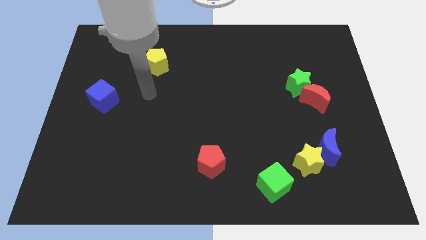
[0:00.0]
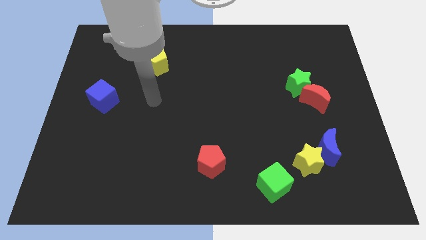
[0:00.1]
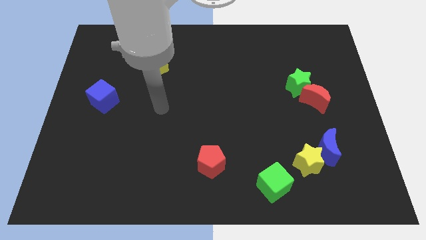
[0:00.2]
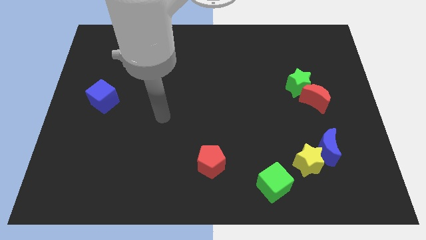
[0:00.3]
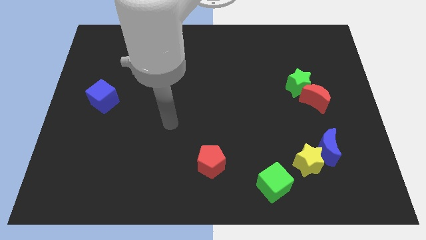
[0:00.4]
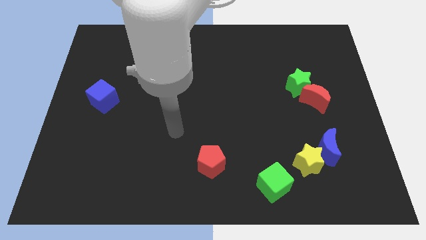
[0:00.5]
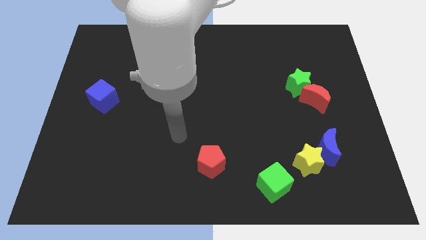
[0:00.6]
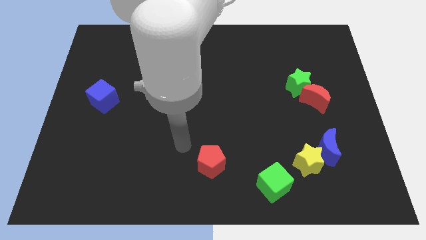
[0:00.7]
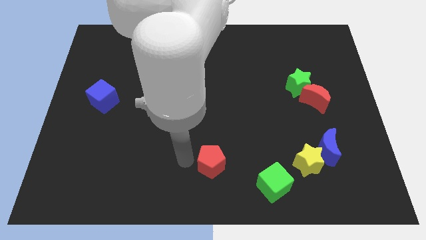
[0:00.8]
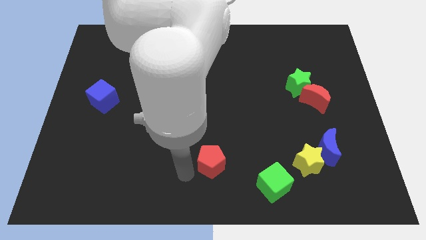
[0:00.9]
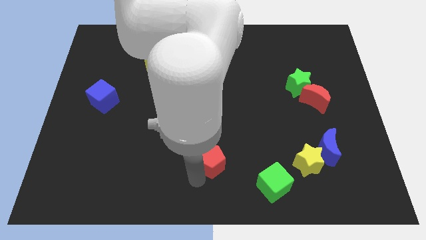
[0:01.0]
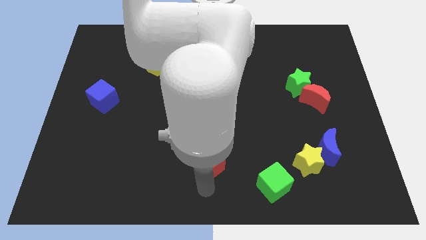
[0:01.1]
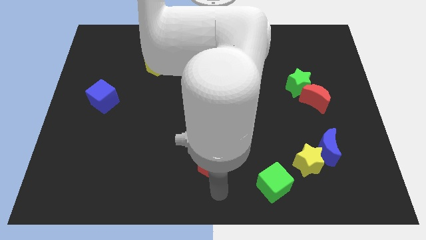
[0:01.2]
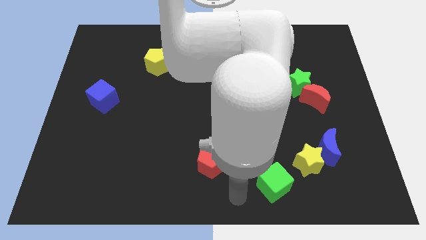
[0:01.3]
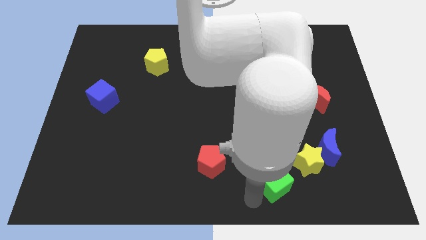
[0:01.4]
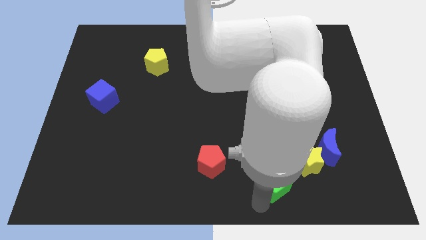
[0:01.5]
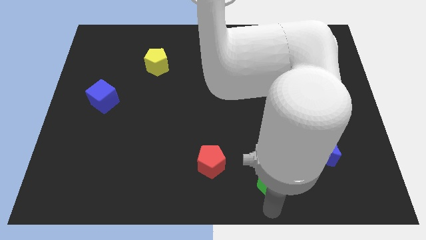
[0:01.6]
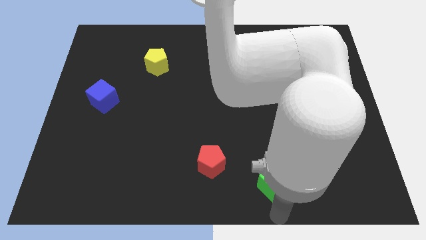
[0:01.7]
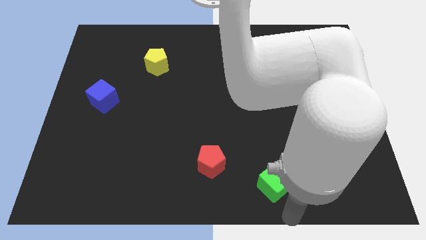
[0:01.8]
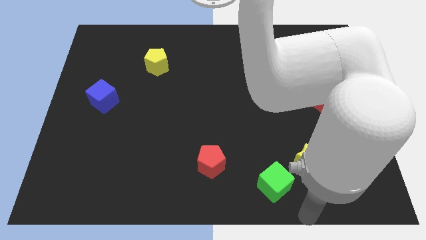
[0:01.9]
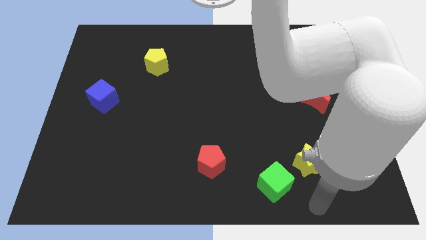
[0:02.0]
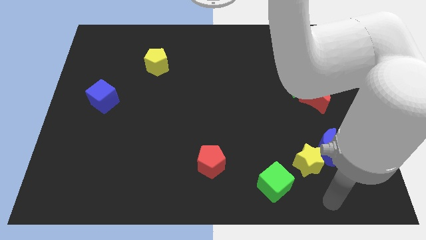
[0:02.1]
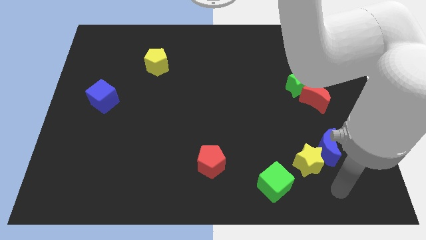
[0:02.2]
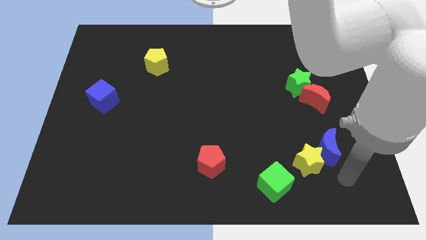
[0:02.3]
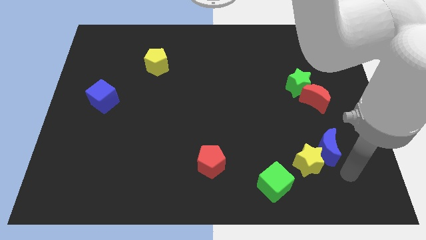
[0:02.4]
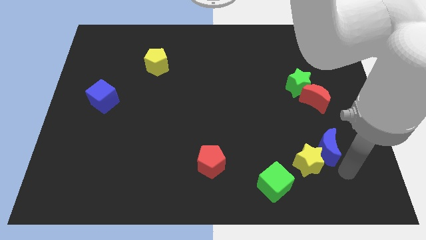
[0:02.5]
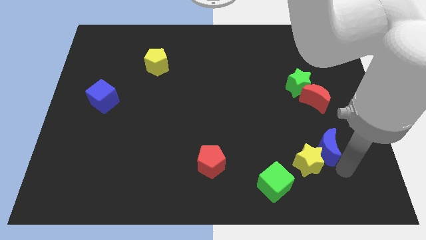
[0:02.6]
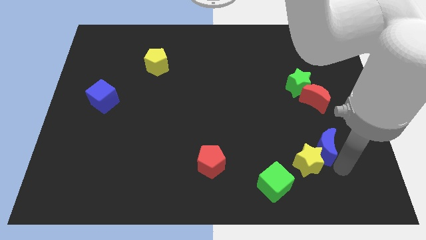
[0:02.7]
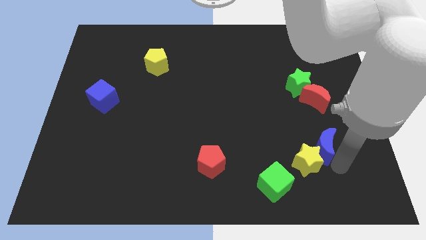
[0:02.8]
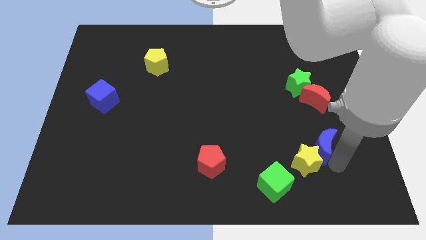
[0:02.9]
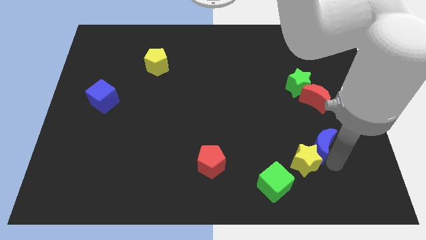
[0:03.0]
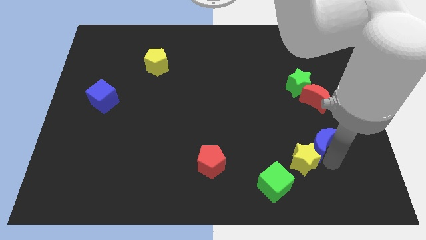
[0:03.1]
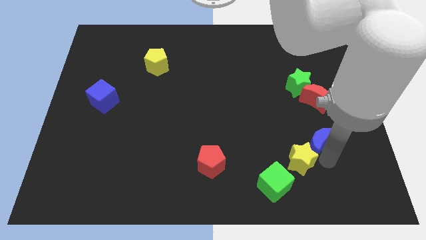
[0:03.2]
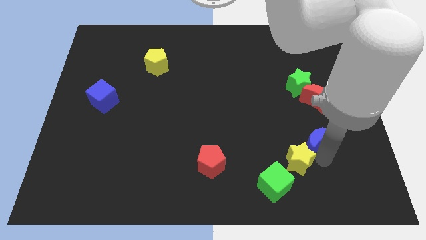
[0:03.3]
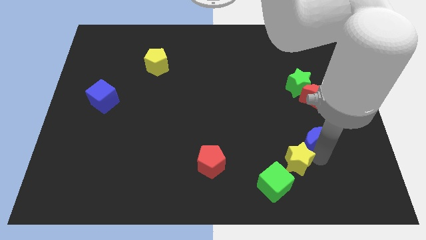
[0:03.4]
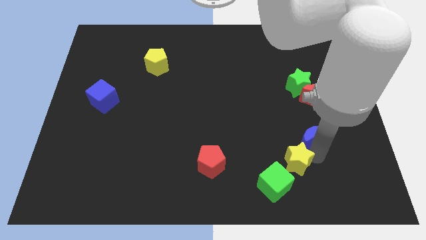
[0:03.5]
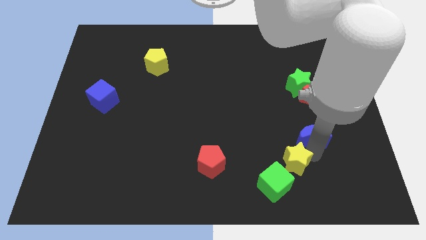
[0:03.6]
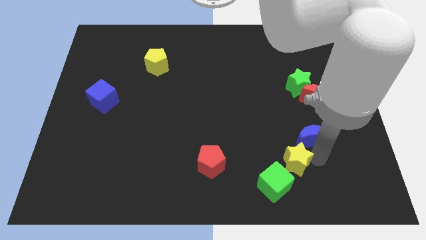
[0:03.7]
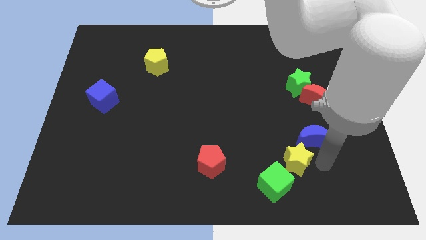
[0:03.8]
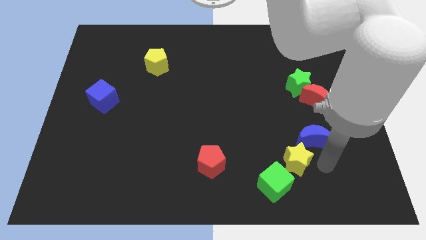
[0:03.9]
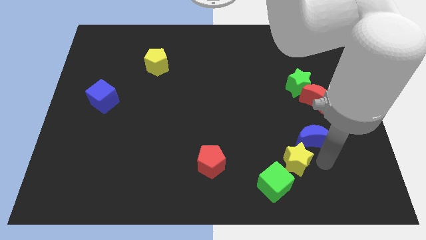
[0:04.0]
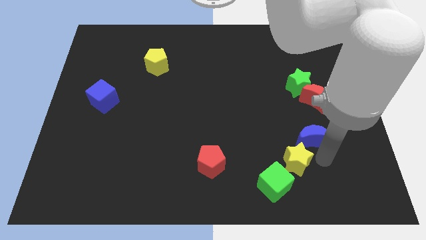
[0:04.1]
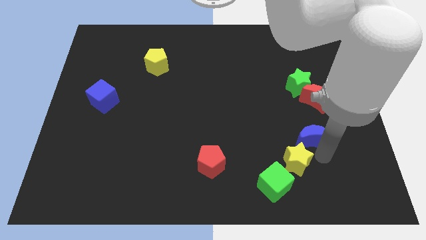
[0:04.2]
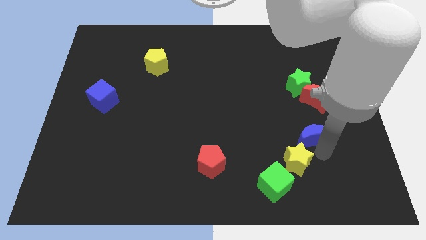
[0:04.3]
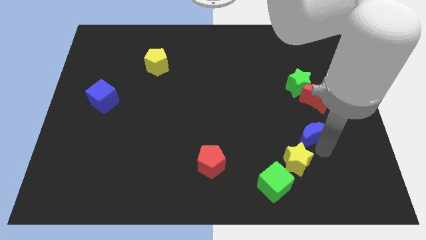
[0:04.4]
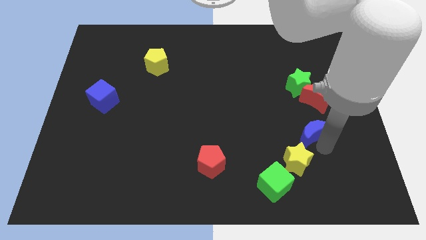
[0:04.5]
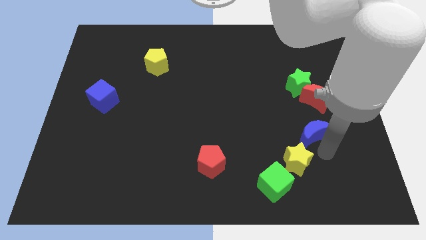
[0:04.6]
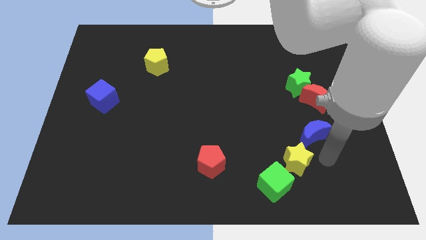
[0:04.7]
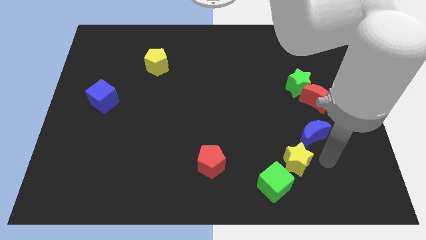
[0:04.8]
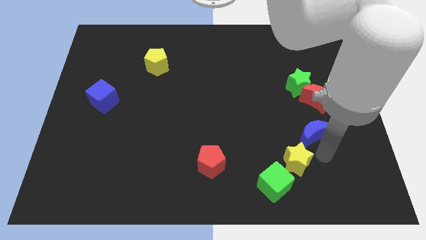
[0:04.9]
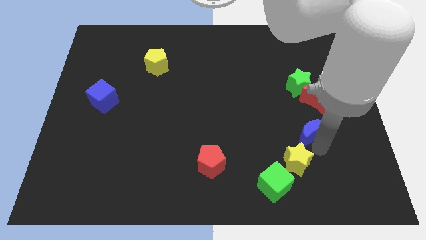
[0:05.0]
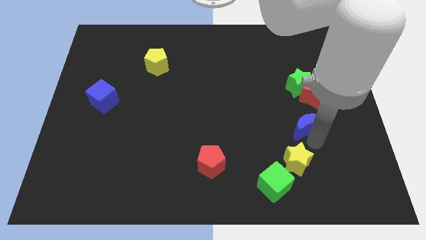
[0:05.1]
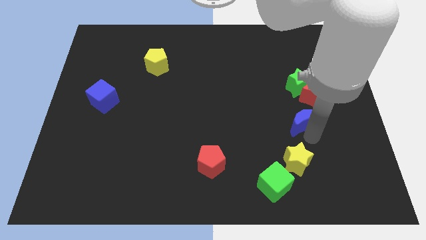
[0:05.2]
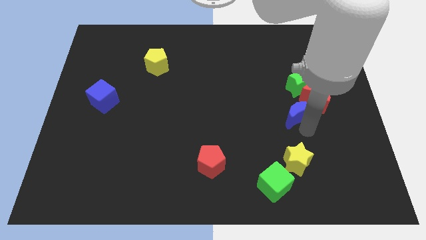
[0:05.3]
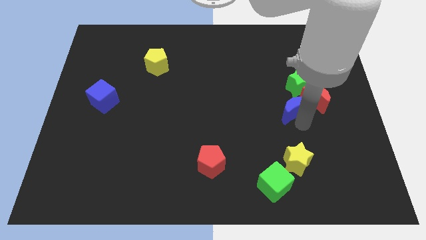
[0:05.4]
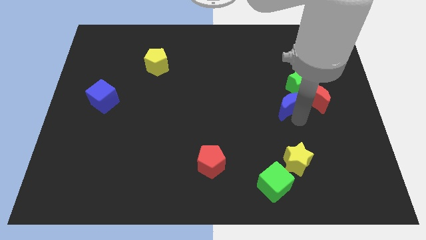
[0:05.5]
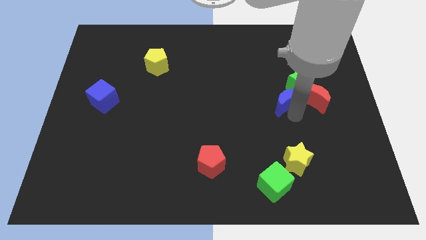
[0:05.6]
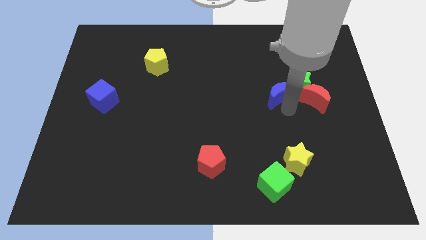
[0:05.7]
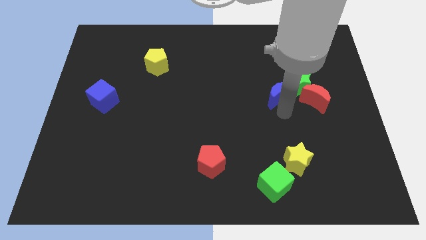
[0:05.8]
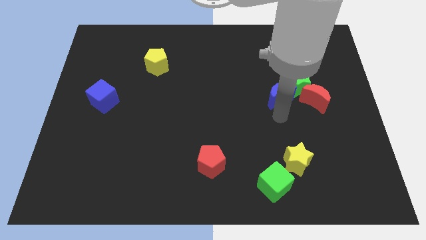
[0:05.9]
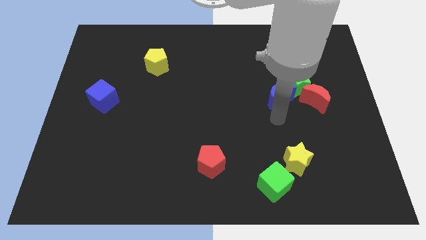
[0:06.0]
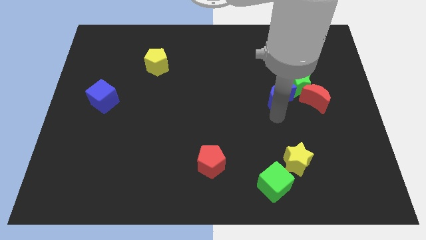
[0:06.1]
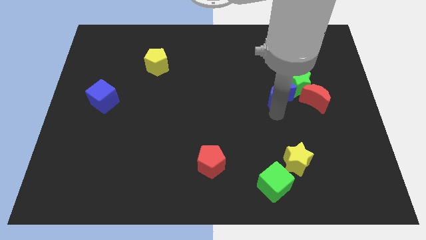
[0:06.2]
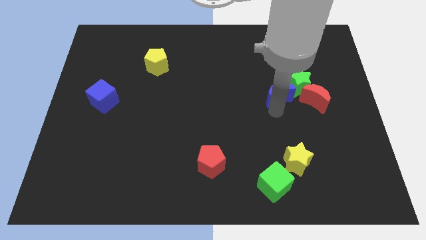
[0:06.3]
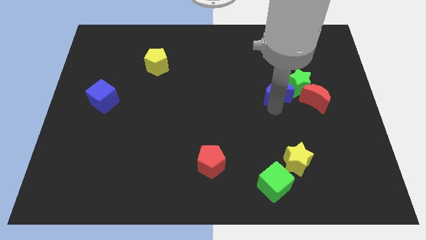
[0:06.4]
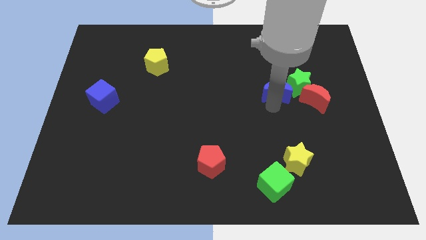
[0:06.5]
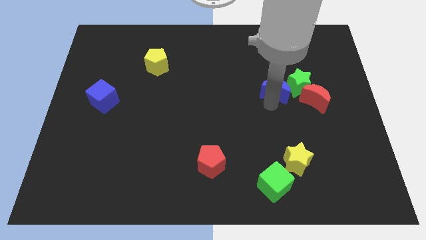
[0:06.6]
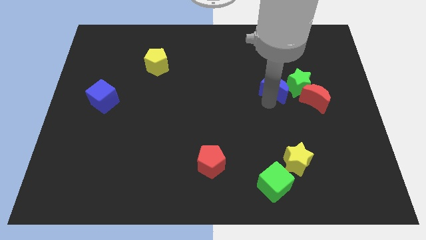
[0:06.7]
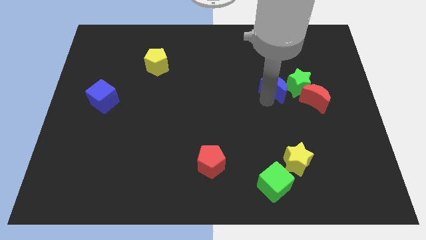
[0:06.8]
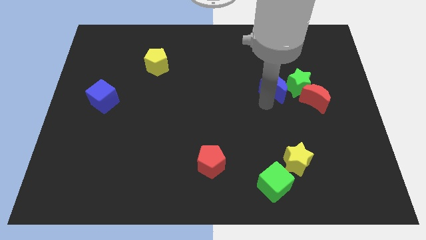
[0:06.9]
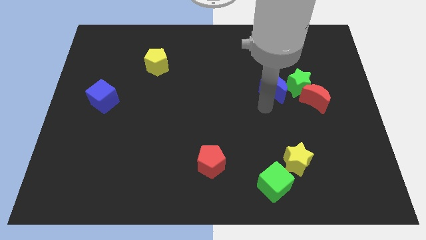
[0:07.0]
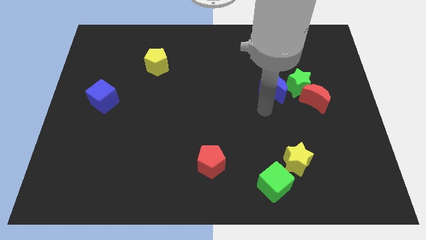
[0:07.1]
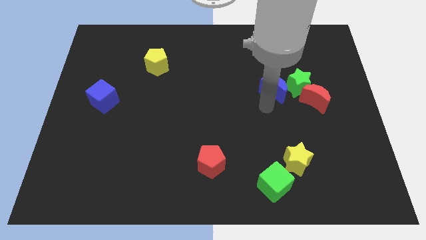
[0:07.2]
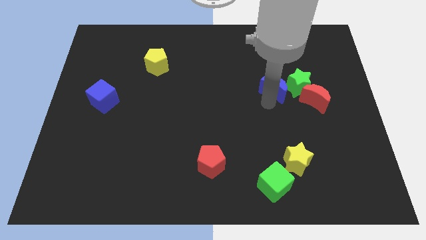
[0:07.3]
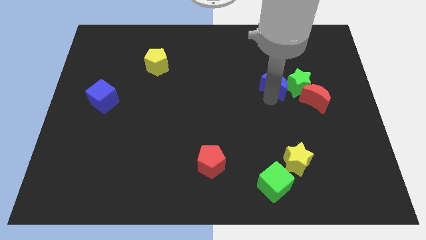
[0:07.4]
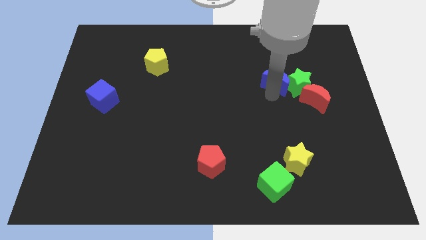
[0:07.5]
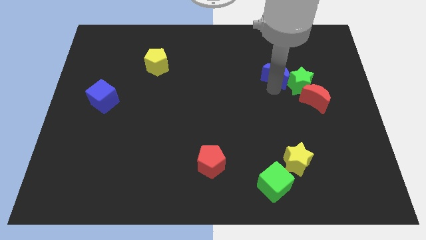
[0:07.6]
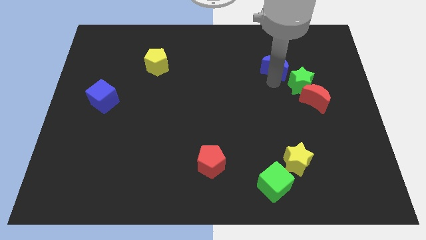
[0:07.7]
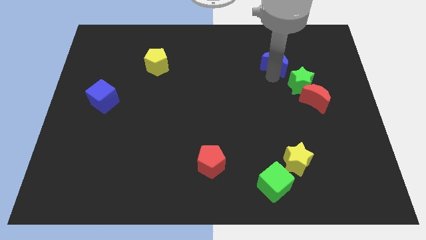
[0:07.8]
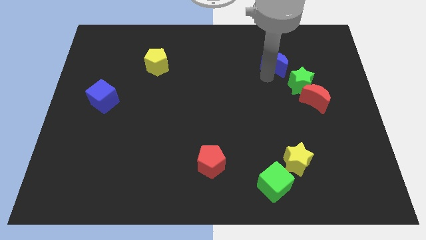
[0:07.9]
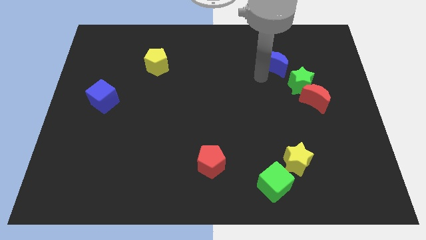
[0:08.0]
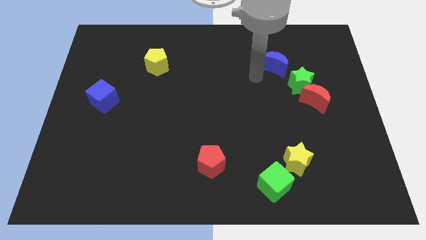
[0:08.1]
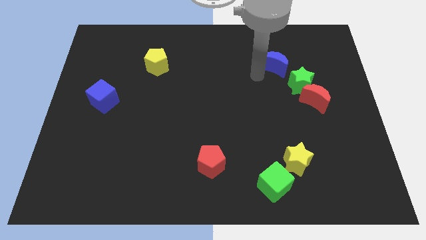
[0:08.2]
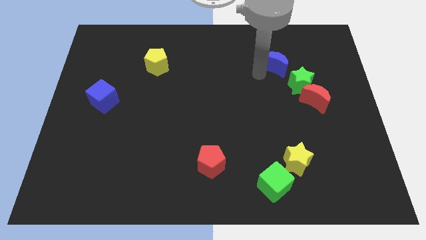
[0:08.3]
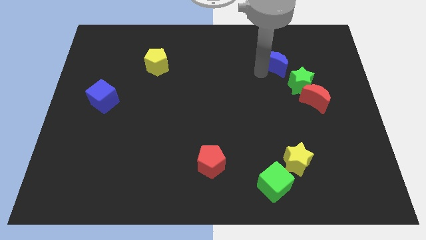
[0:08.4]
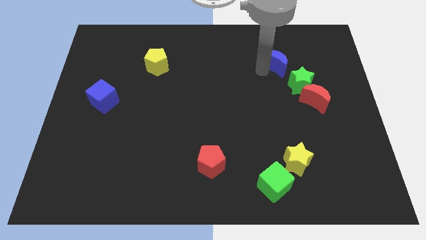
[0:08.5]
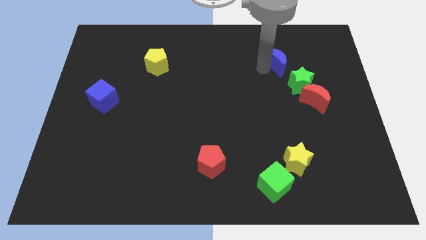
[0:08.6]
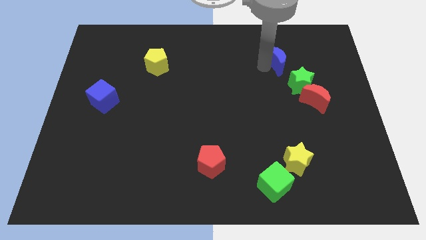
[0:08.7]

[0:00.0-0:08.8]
put the blue moon to the top of the green star
